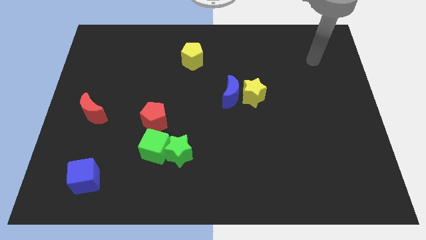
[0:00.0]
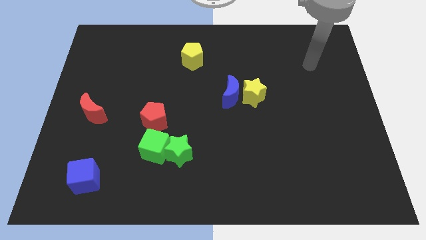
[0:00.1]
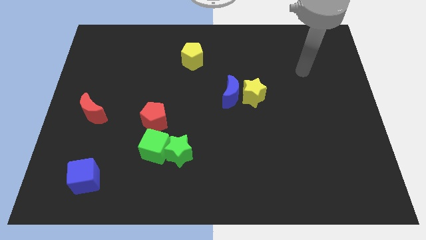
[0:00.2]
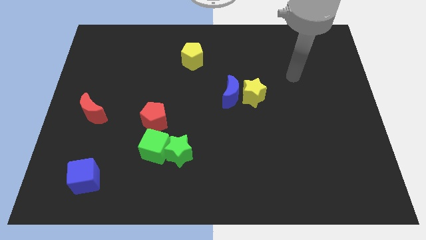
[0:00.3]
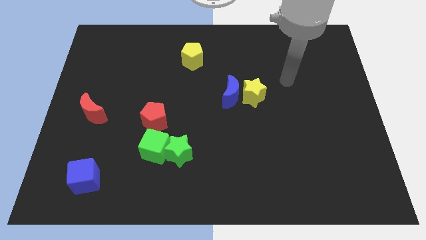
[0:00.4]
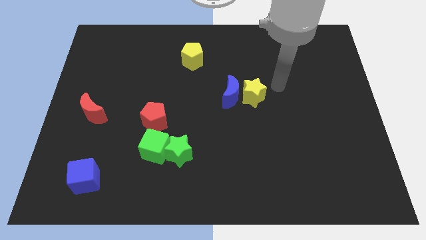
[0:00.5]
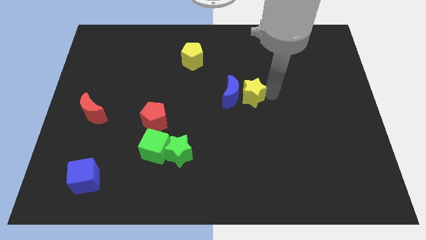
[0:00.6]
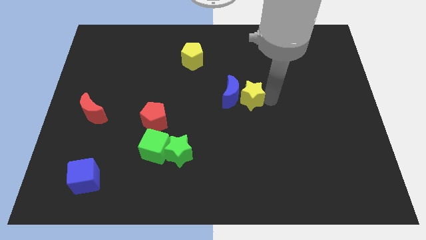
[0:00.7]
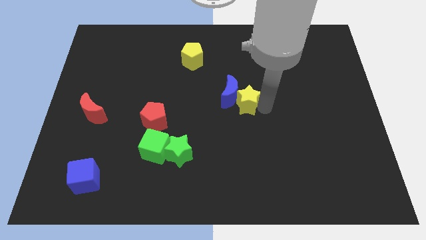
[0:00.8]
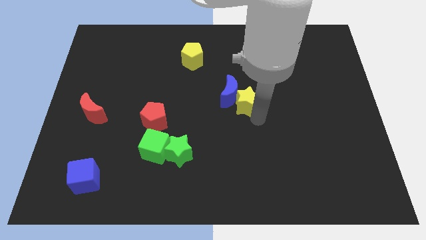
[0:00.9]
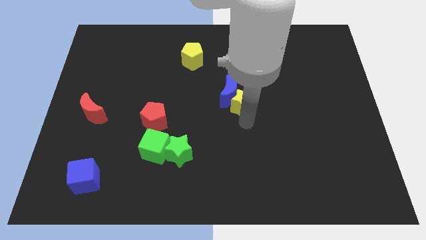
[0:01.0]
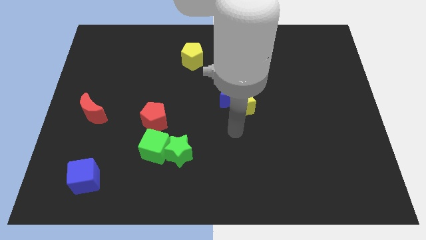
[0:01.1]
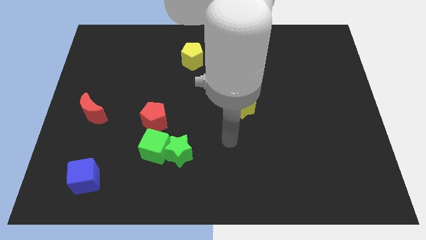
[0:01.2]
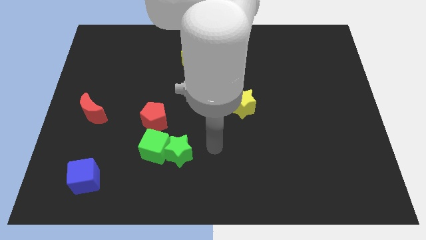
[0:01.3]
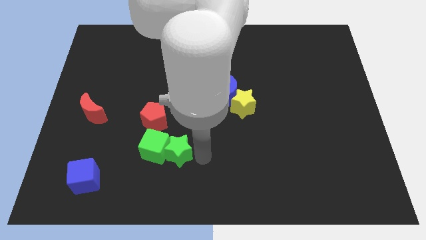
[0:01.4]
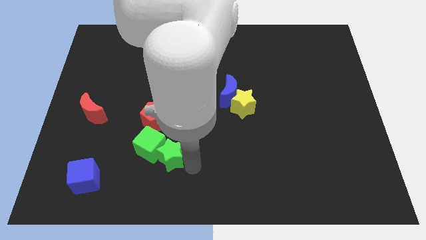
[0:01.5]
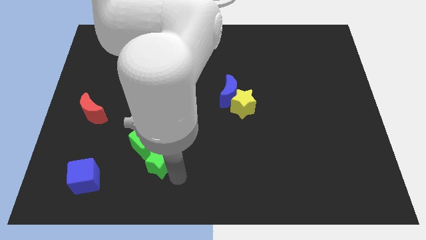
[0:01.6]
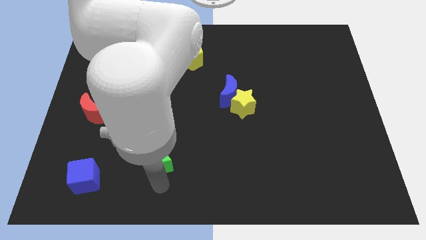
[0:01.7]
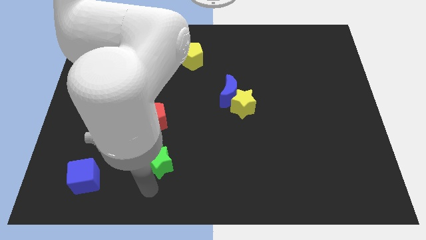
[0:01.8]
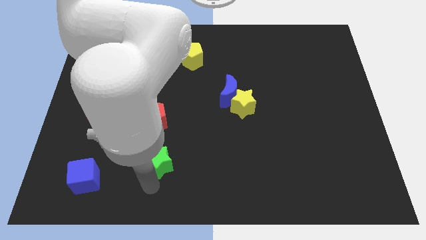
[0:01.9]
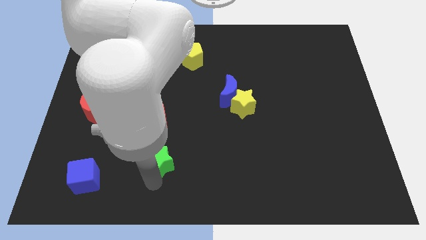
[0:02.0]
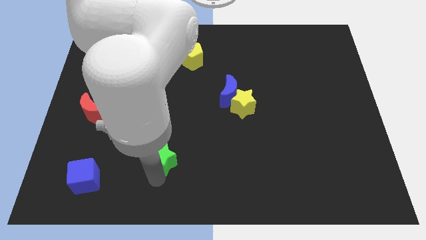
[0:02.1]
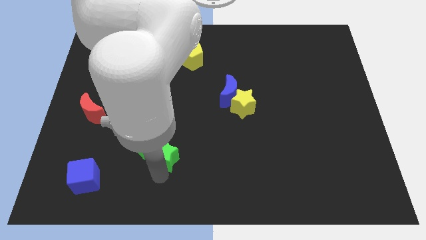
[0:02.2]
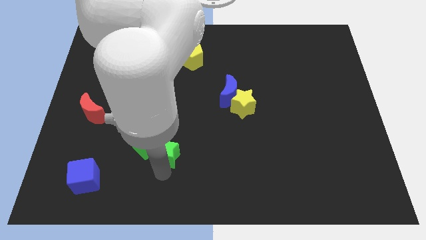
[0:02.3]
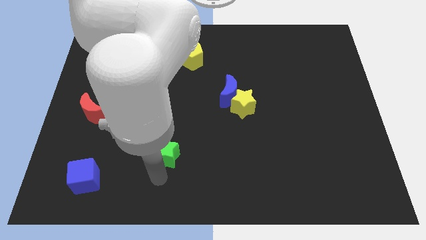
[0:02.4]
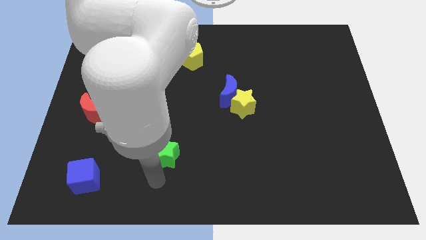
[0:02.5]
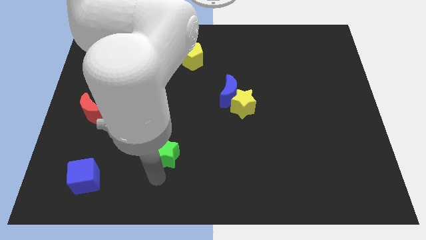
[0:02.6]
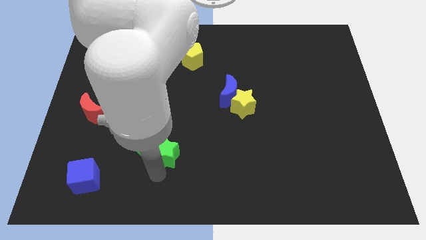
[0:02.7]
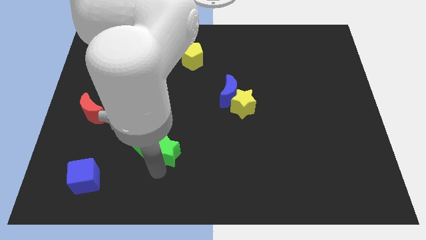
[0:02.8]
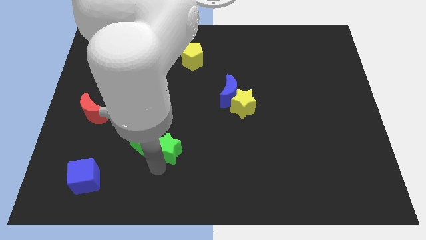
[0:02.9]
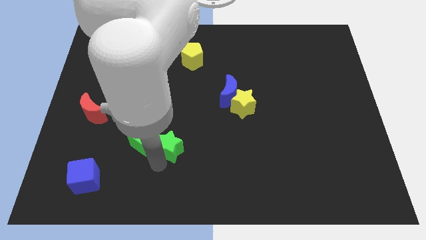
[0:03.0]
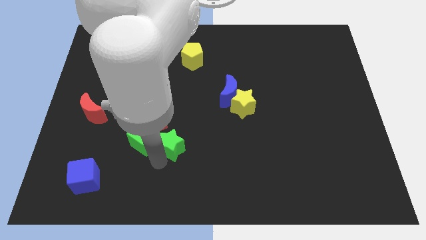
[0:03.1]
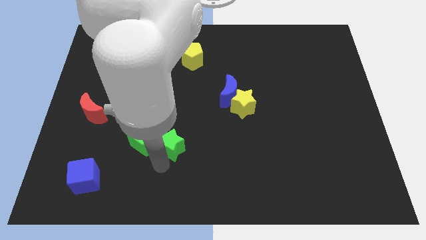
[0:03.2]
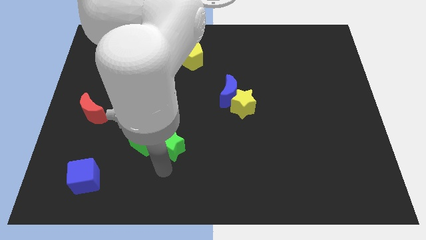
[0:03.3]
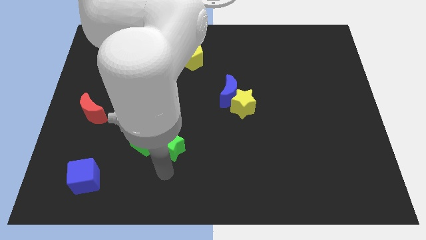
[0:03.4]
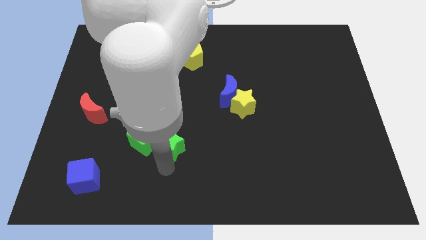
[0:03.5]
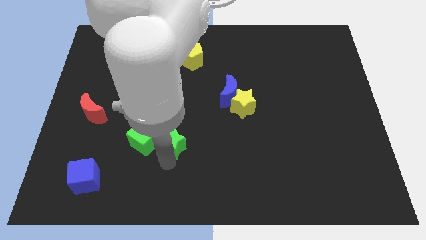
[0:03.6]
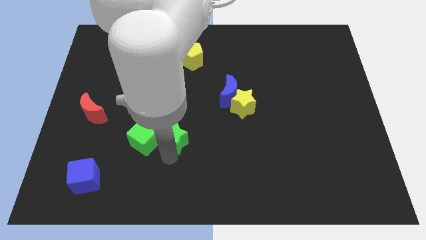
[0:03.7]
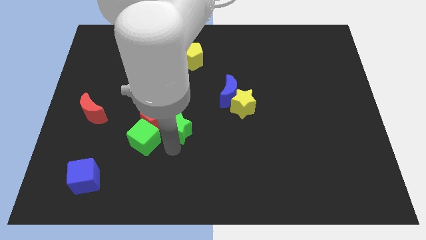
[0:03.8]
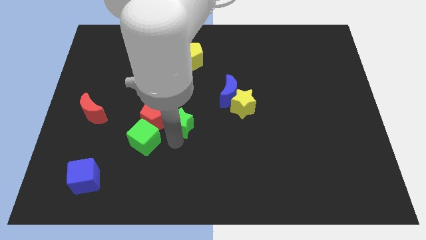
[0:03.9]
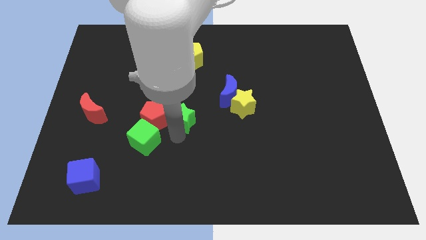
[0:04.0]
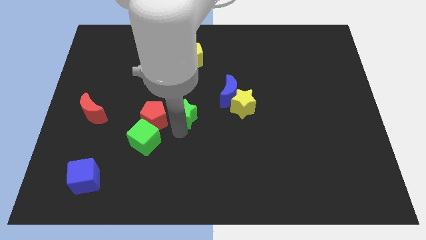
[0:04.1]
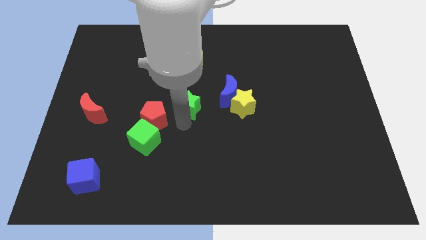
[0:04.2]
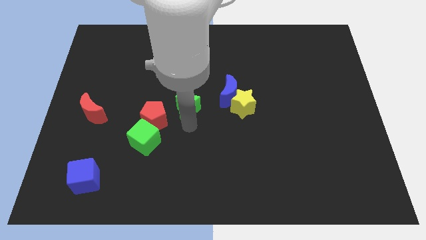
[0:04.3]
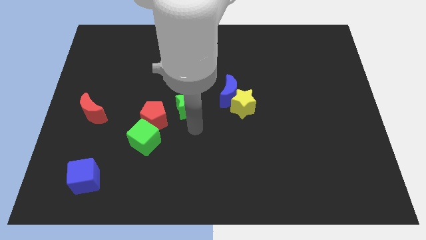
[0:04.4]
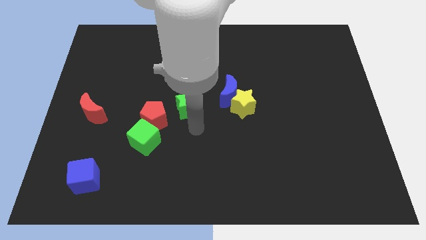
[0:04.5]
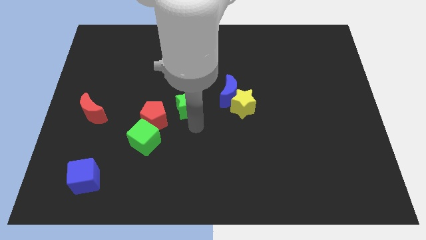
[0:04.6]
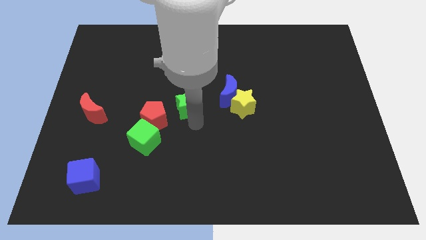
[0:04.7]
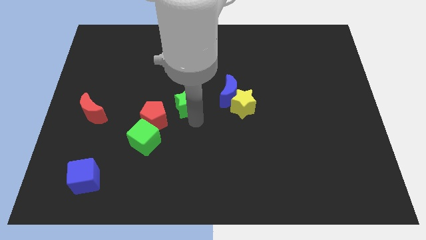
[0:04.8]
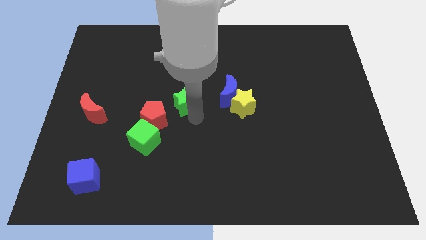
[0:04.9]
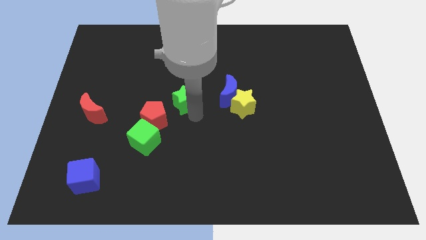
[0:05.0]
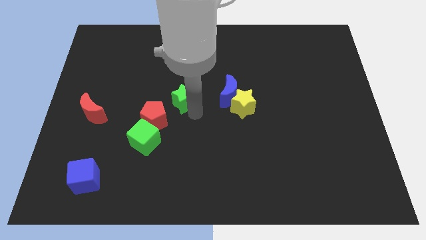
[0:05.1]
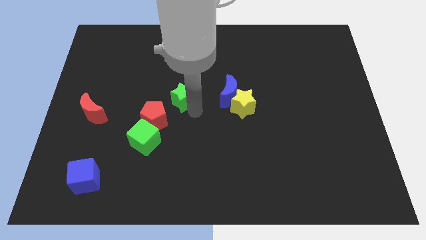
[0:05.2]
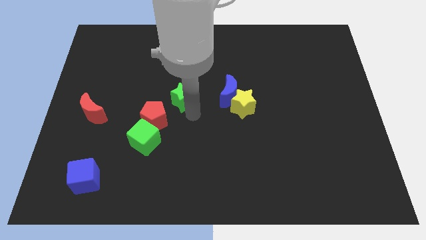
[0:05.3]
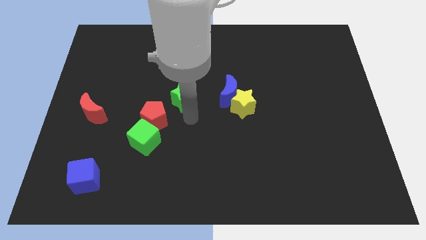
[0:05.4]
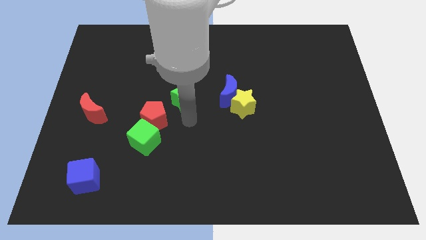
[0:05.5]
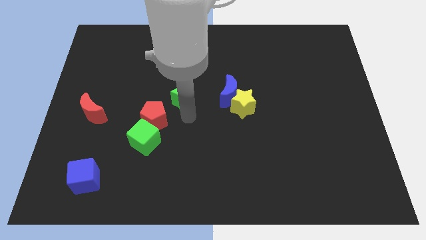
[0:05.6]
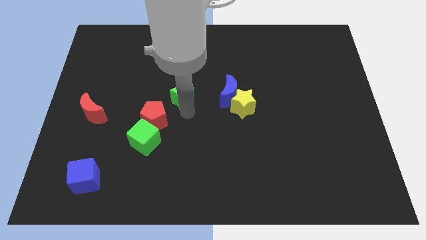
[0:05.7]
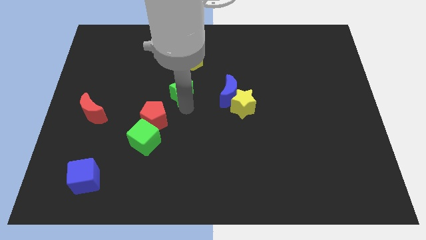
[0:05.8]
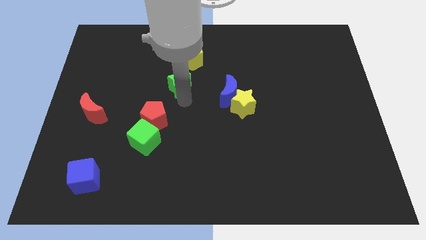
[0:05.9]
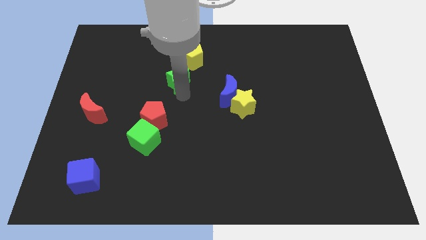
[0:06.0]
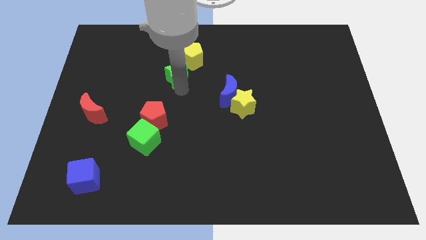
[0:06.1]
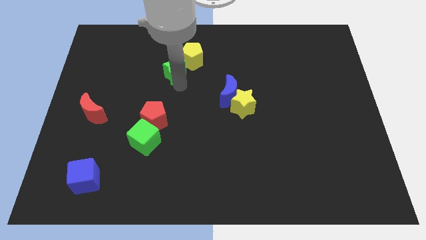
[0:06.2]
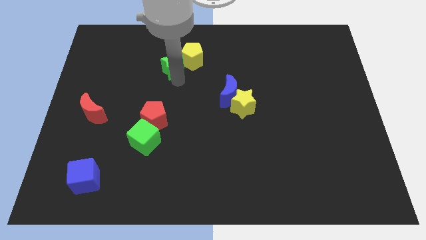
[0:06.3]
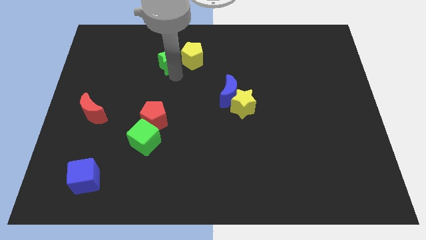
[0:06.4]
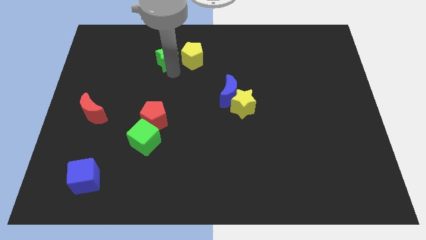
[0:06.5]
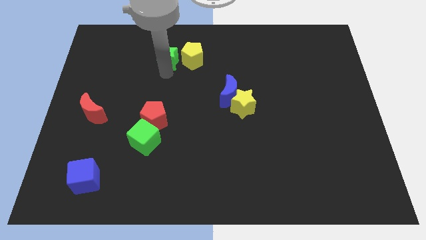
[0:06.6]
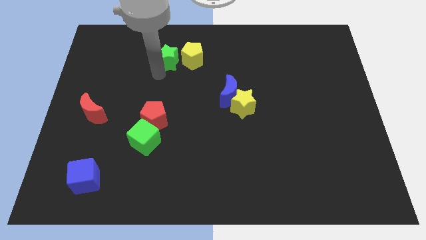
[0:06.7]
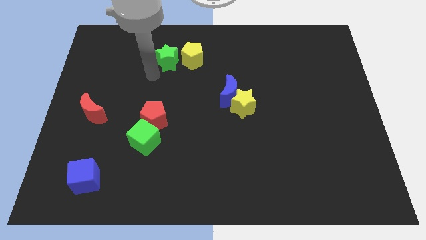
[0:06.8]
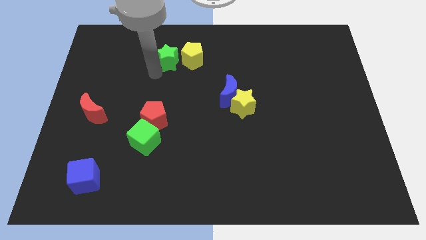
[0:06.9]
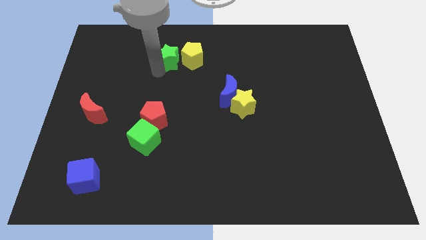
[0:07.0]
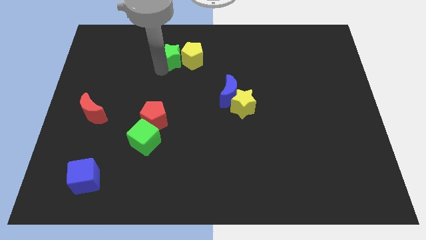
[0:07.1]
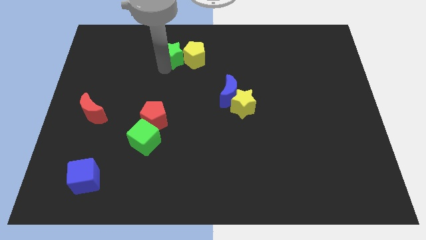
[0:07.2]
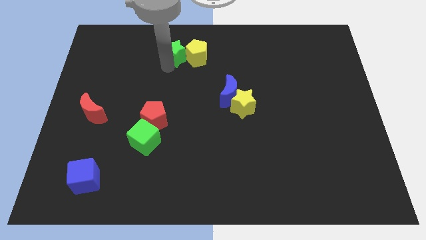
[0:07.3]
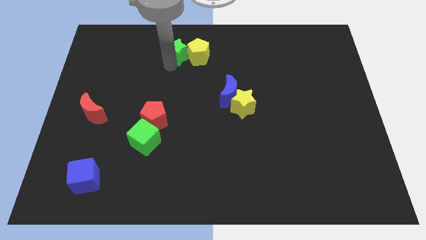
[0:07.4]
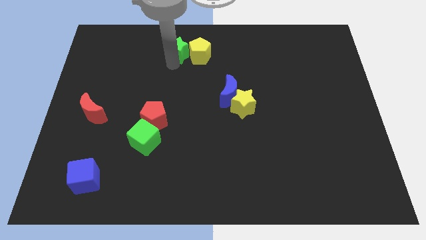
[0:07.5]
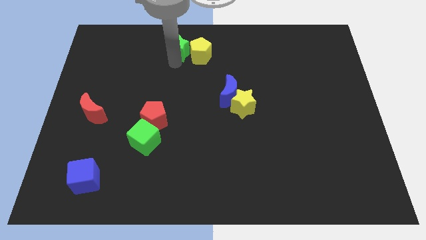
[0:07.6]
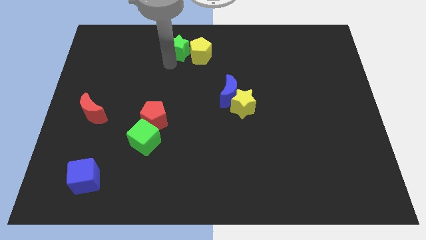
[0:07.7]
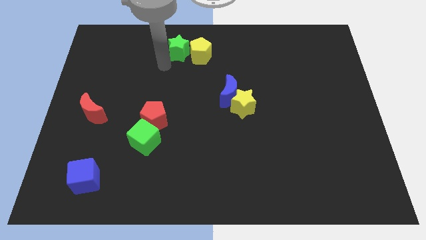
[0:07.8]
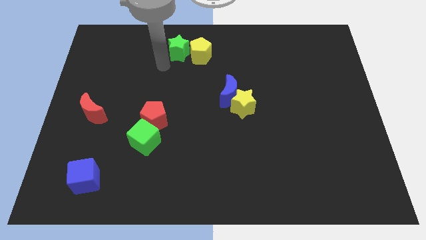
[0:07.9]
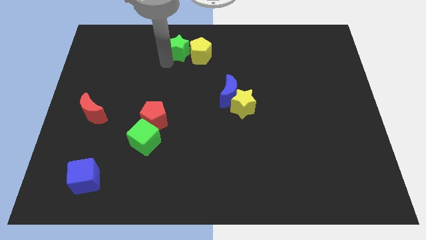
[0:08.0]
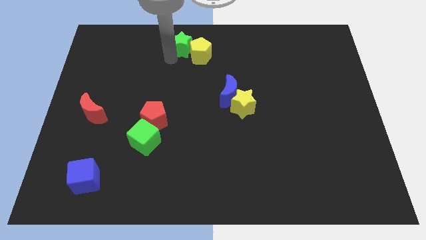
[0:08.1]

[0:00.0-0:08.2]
put the green star to the top
